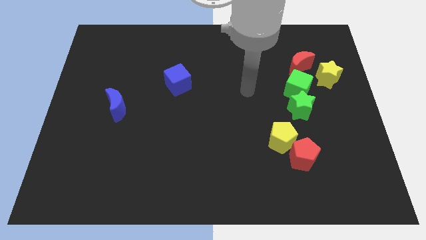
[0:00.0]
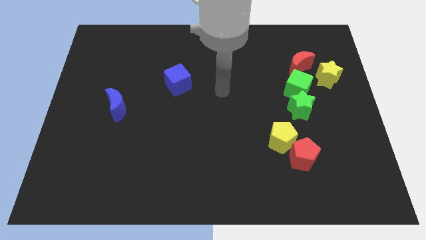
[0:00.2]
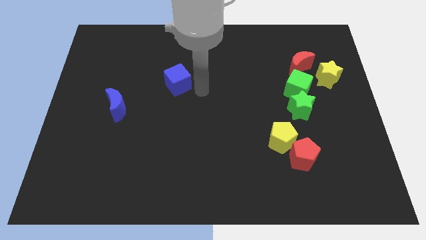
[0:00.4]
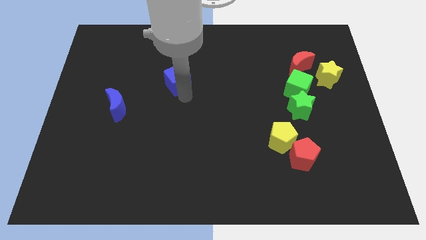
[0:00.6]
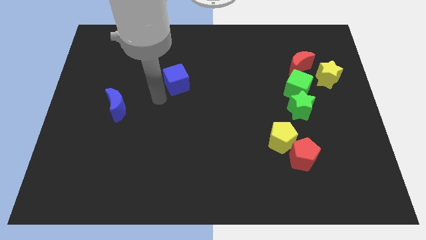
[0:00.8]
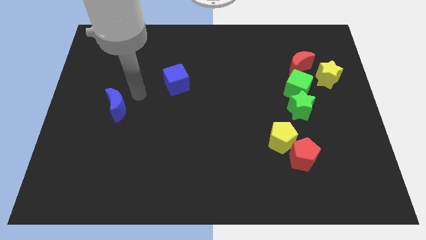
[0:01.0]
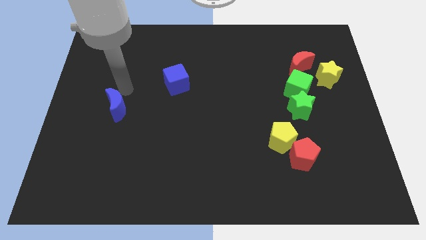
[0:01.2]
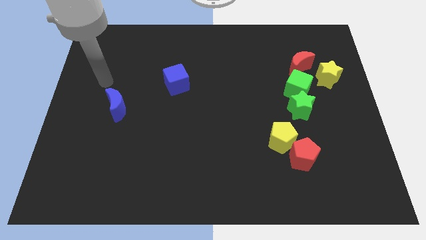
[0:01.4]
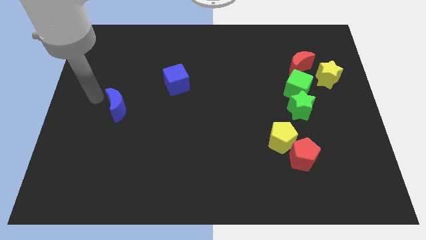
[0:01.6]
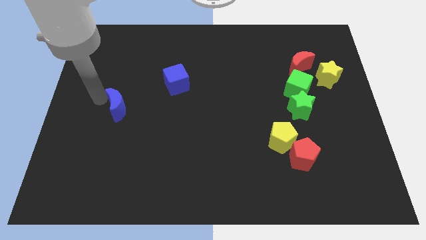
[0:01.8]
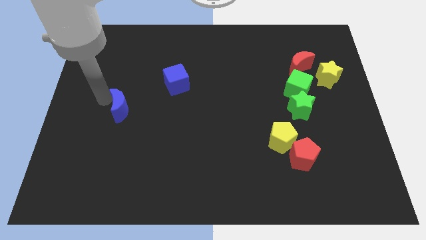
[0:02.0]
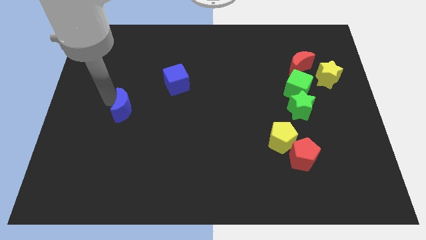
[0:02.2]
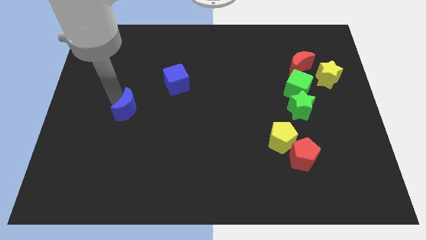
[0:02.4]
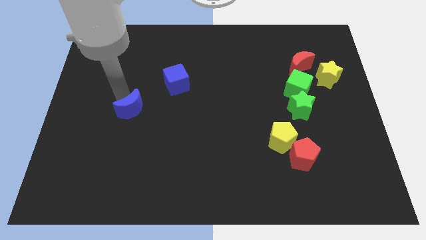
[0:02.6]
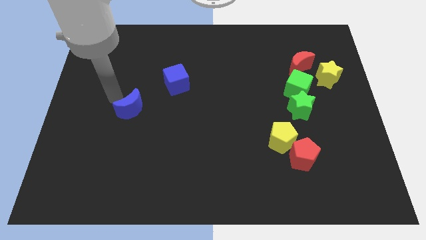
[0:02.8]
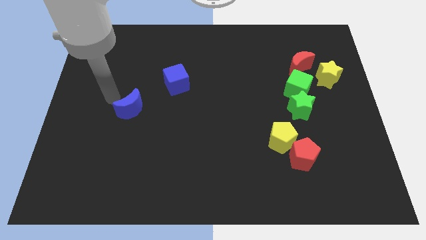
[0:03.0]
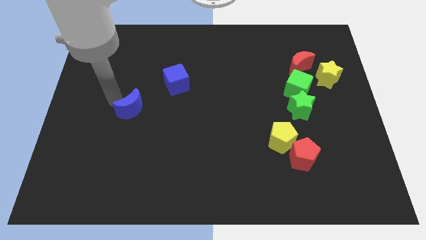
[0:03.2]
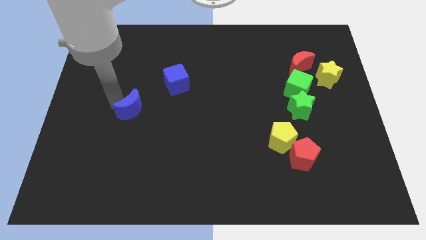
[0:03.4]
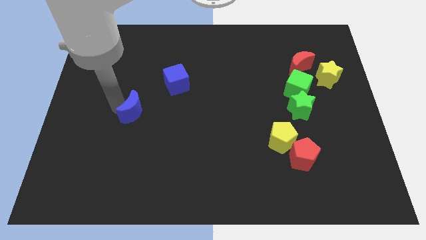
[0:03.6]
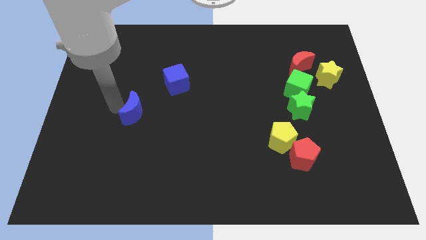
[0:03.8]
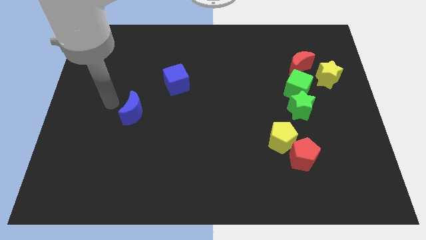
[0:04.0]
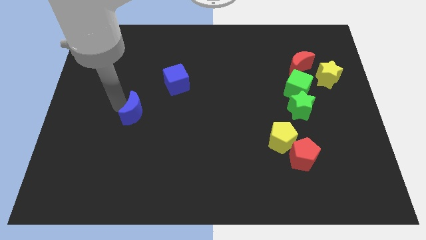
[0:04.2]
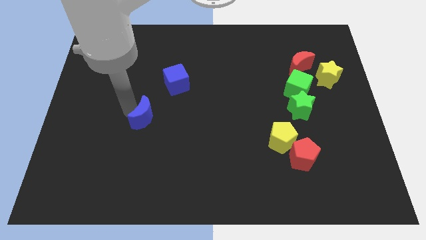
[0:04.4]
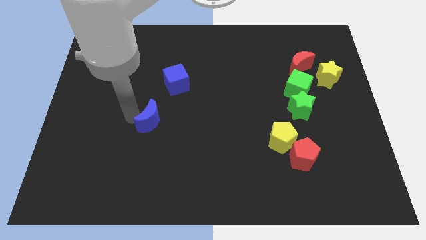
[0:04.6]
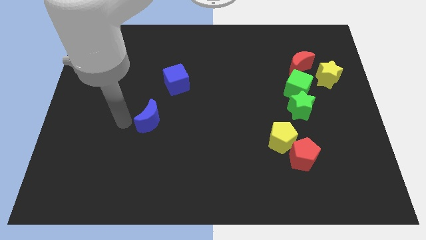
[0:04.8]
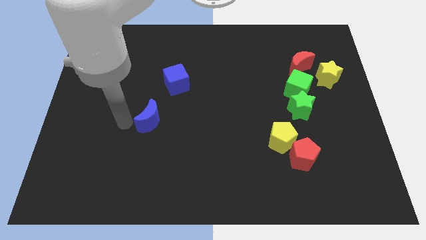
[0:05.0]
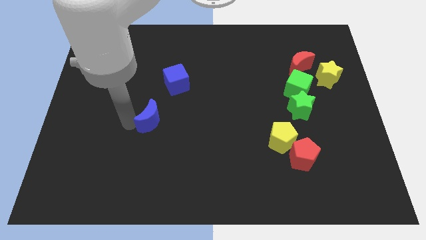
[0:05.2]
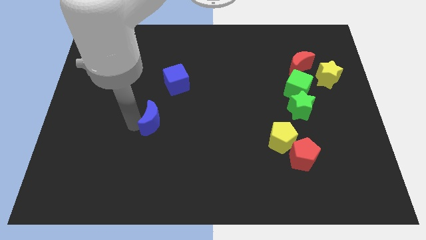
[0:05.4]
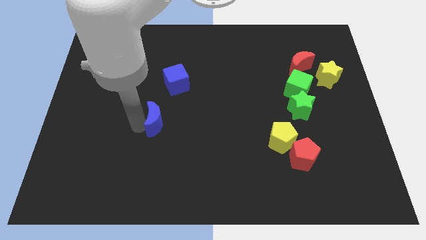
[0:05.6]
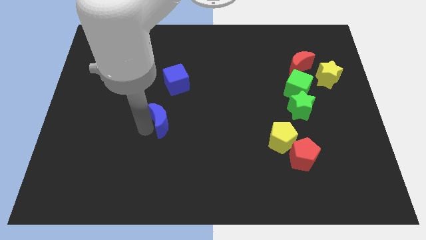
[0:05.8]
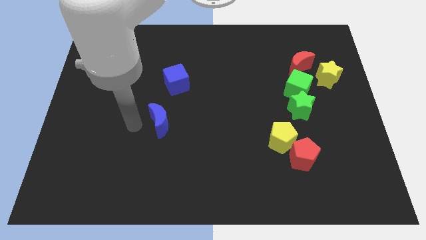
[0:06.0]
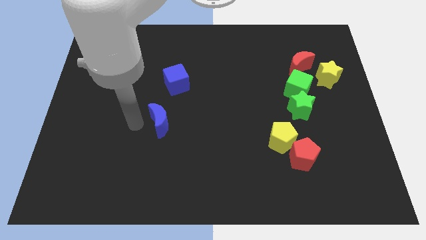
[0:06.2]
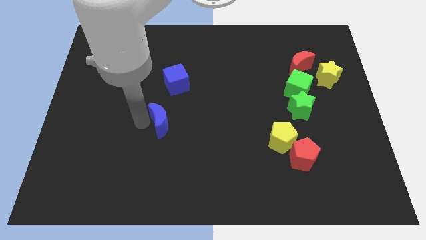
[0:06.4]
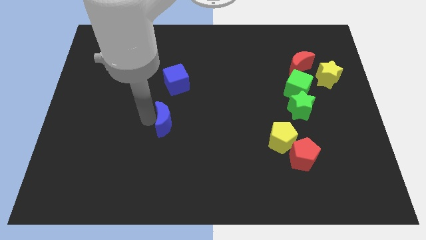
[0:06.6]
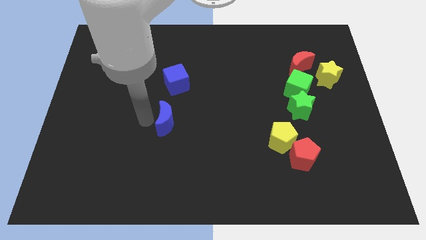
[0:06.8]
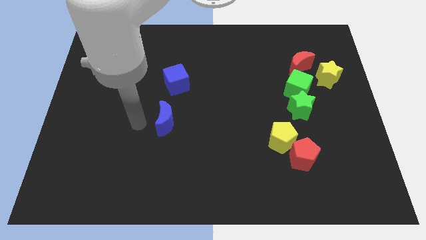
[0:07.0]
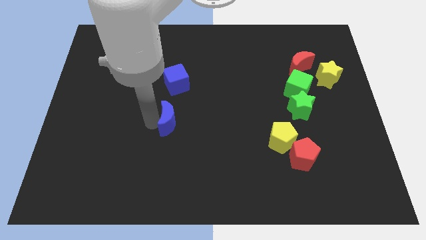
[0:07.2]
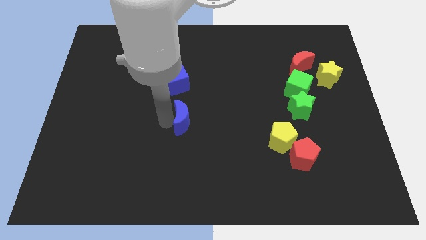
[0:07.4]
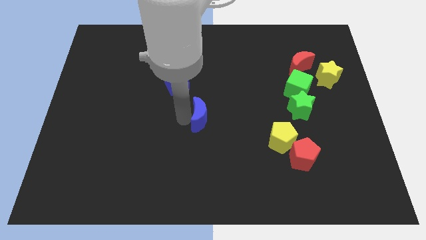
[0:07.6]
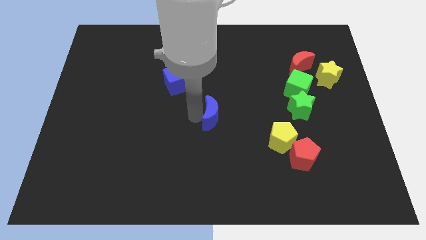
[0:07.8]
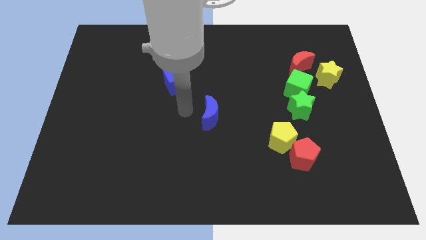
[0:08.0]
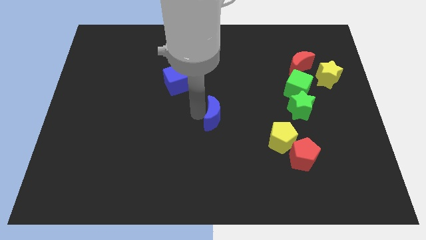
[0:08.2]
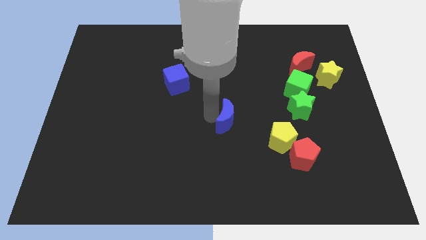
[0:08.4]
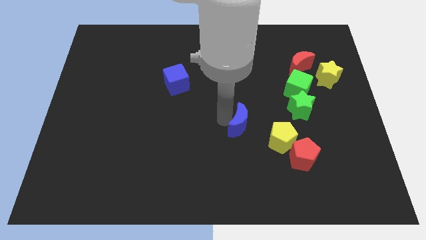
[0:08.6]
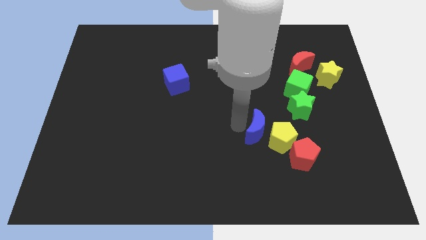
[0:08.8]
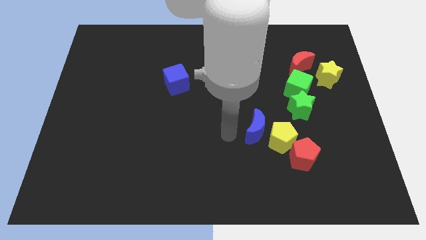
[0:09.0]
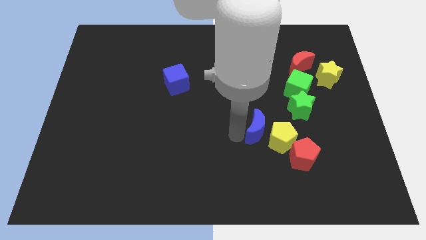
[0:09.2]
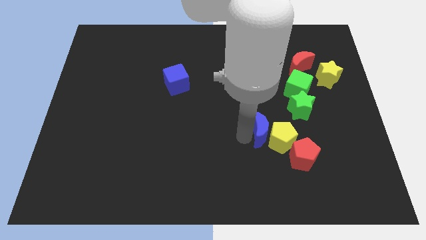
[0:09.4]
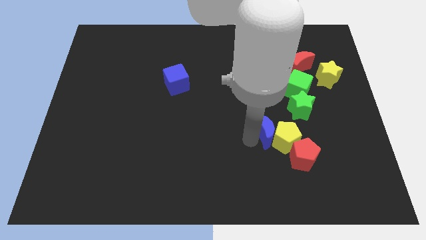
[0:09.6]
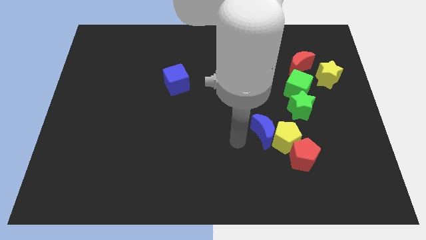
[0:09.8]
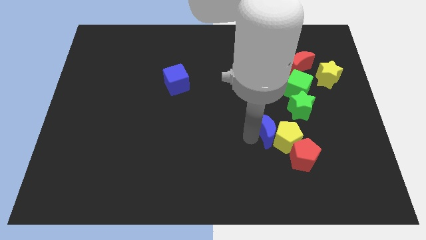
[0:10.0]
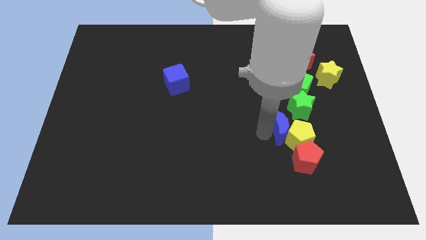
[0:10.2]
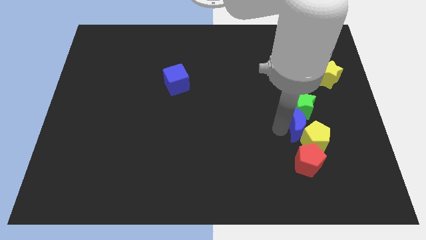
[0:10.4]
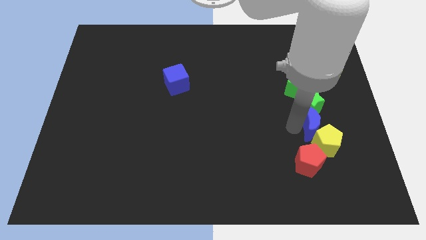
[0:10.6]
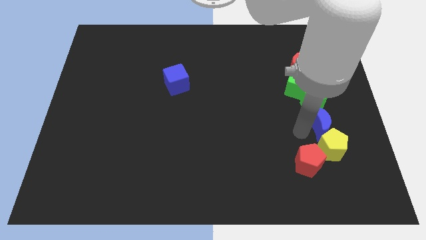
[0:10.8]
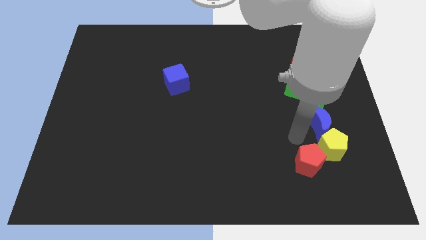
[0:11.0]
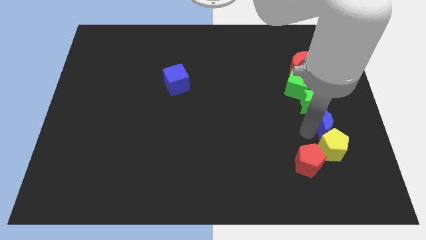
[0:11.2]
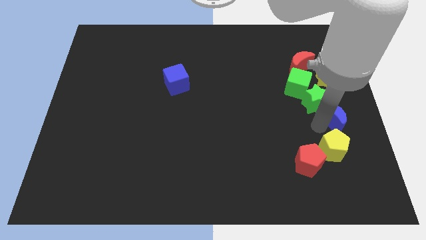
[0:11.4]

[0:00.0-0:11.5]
move the blue moon to the right side
